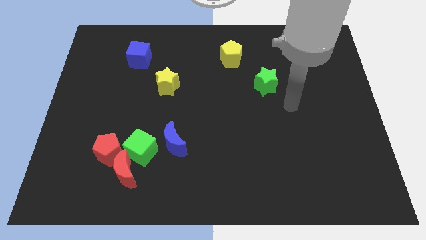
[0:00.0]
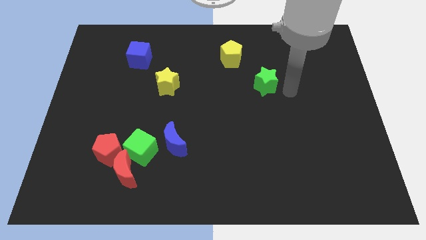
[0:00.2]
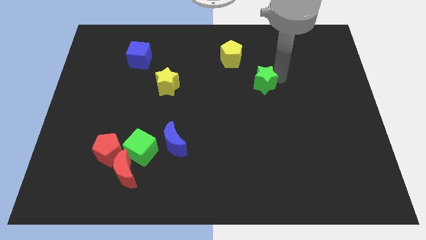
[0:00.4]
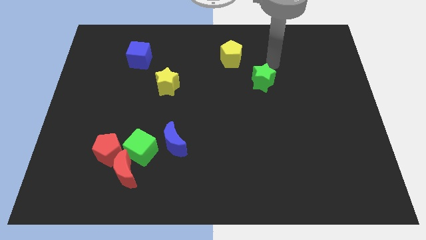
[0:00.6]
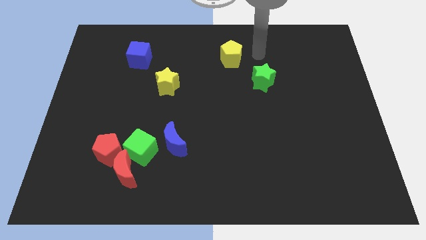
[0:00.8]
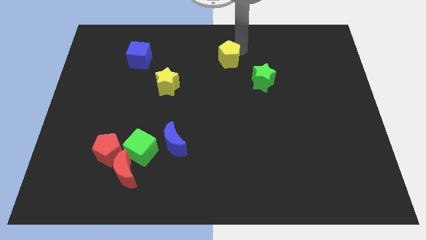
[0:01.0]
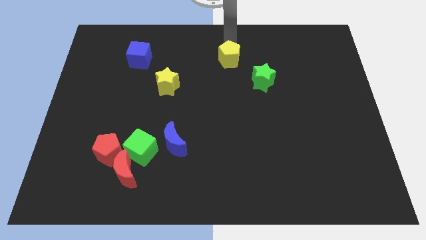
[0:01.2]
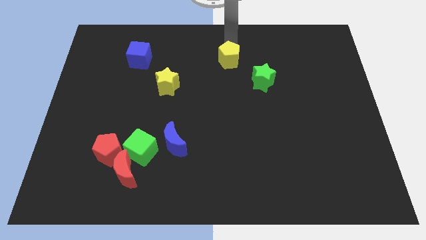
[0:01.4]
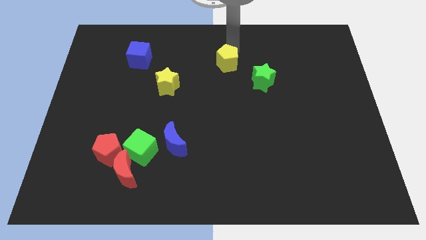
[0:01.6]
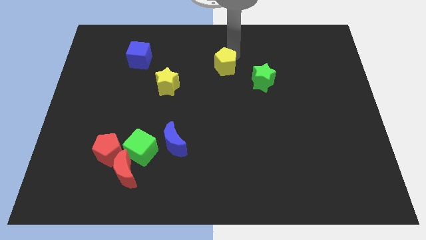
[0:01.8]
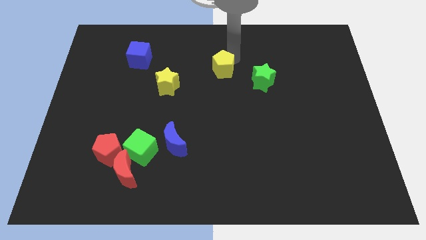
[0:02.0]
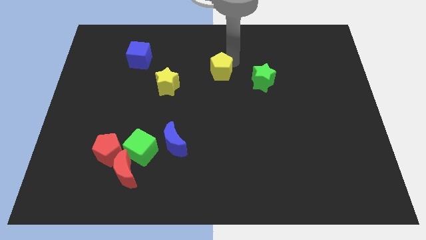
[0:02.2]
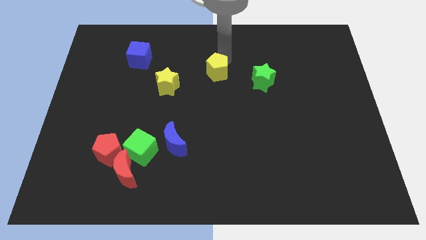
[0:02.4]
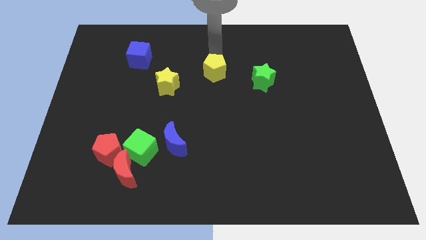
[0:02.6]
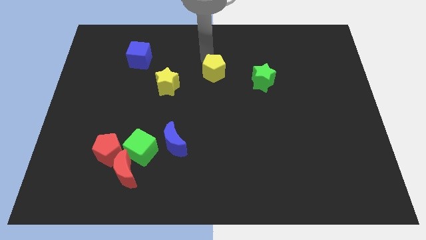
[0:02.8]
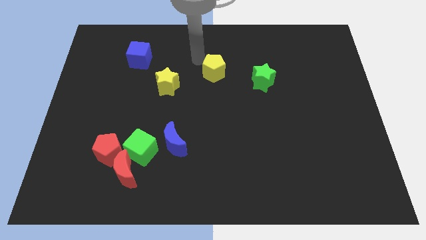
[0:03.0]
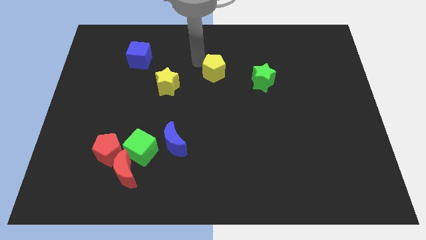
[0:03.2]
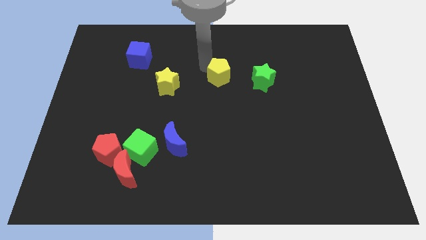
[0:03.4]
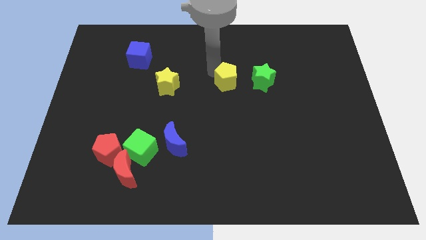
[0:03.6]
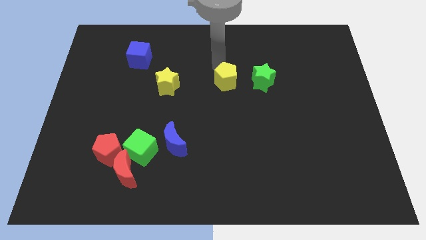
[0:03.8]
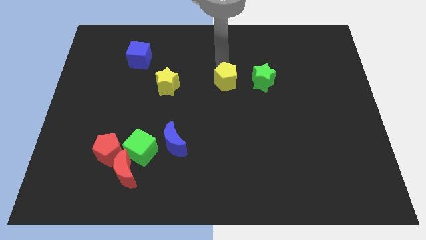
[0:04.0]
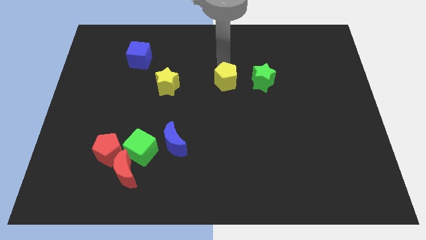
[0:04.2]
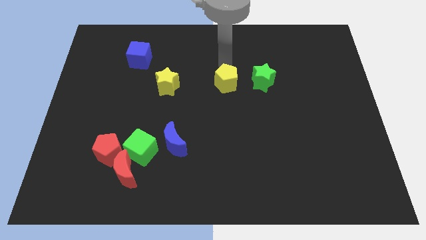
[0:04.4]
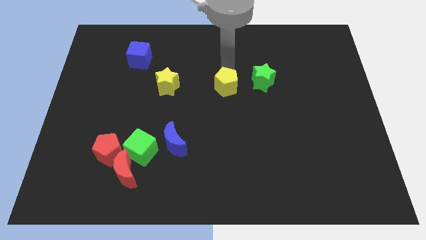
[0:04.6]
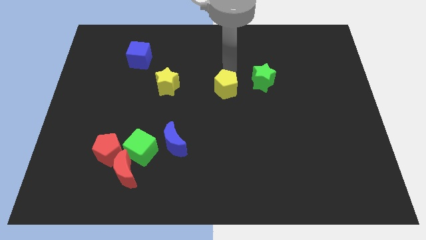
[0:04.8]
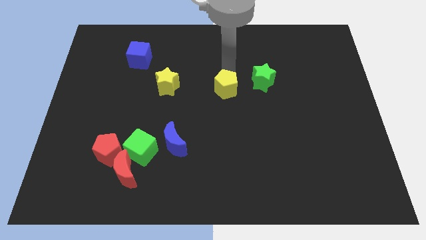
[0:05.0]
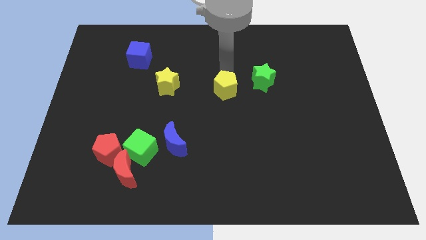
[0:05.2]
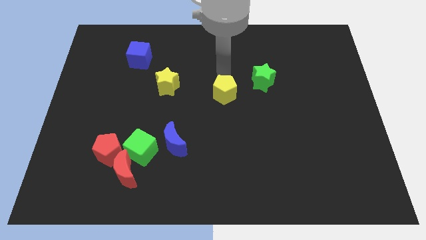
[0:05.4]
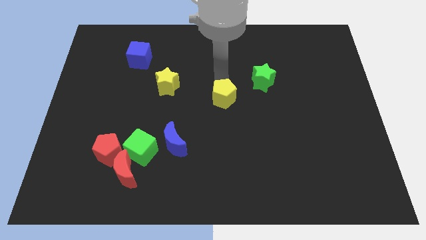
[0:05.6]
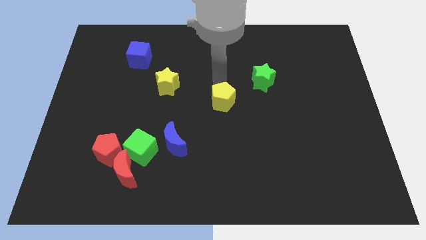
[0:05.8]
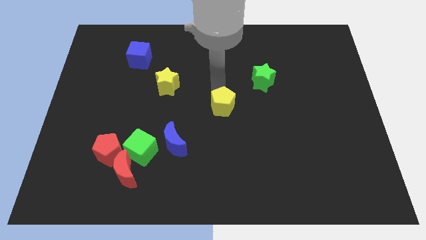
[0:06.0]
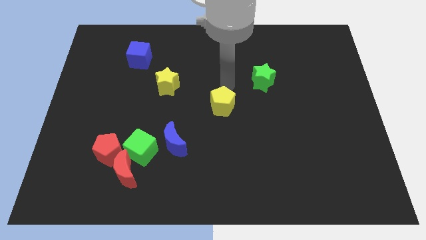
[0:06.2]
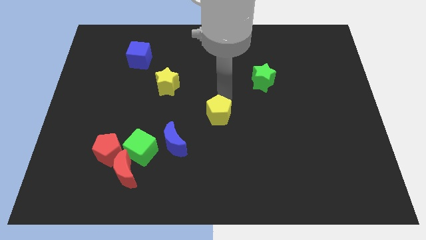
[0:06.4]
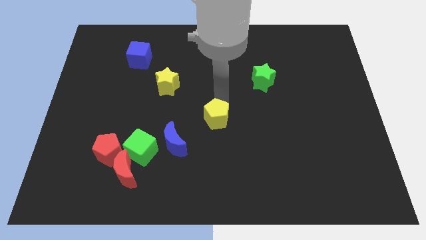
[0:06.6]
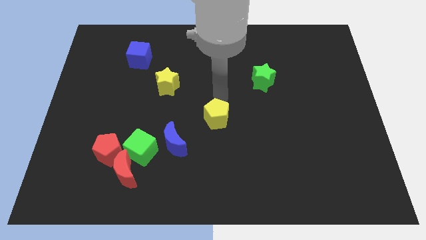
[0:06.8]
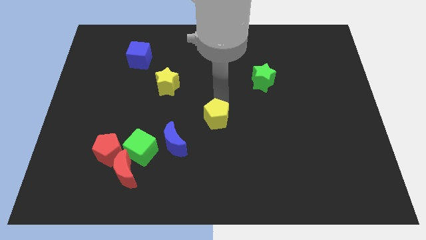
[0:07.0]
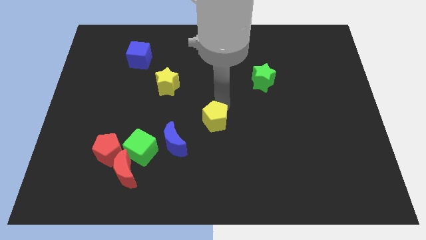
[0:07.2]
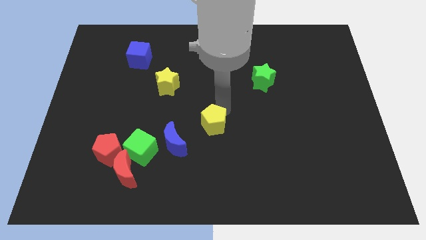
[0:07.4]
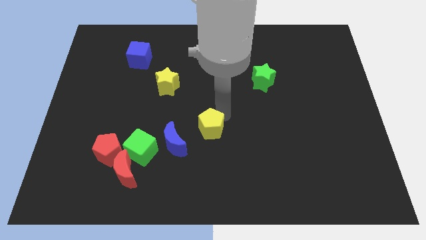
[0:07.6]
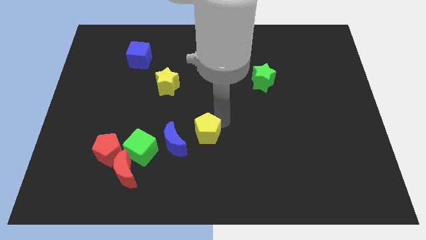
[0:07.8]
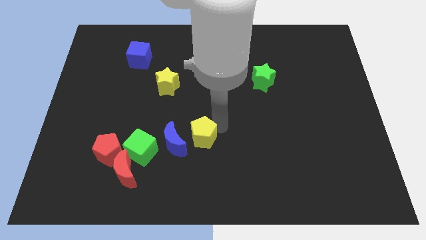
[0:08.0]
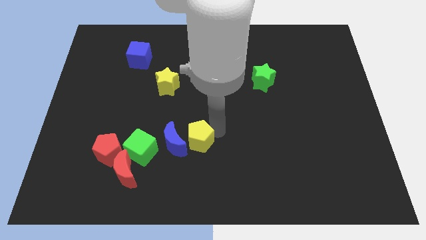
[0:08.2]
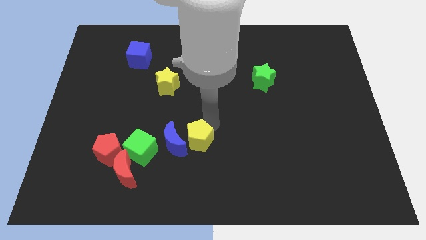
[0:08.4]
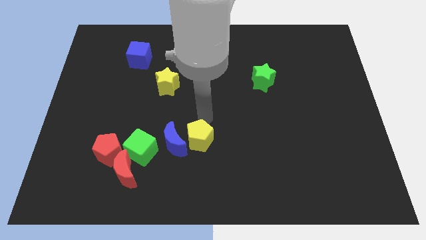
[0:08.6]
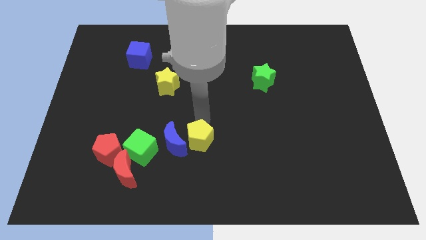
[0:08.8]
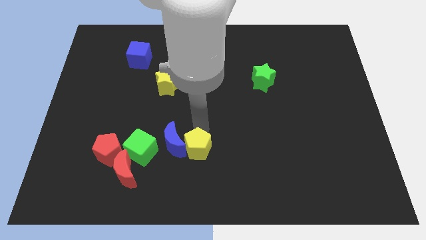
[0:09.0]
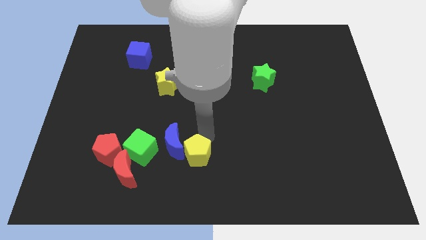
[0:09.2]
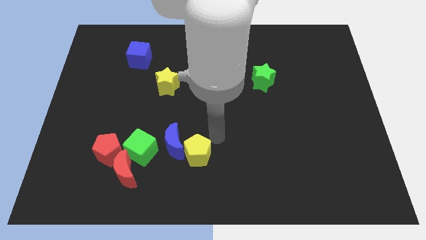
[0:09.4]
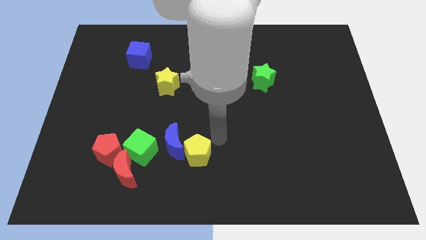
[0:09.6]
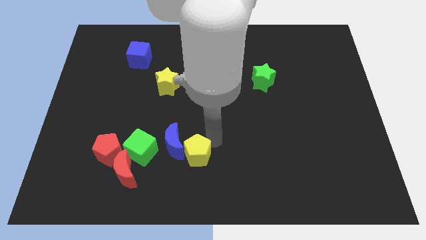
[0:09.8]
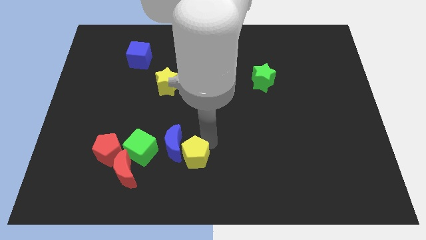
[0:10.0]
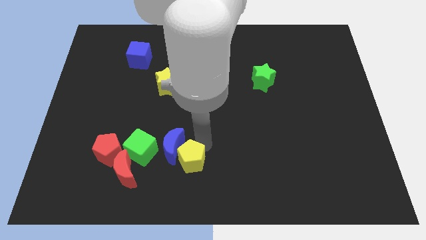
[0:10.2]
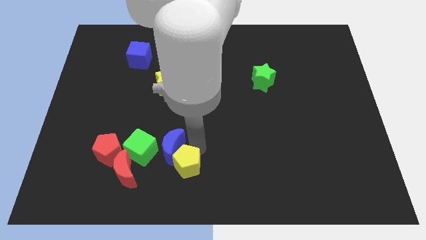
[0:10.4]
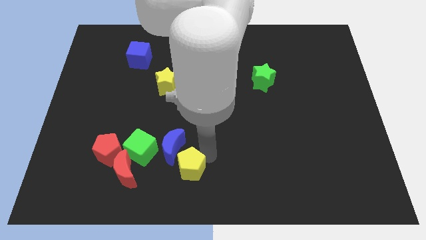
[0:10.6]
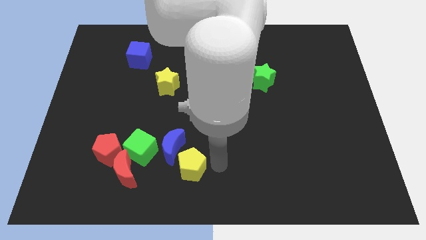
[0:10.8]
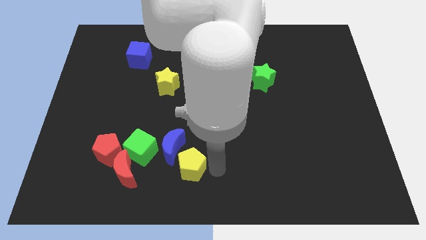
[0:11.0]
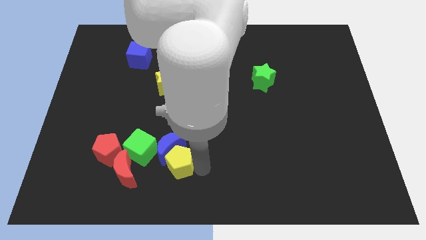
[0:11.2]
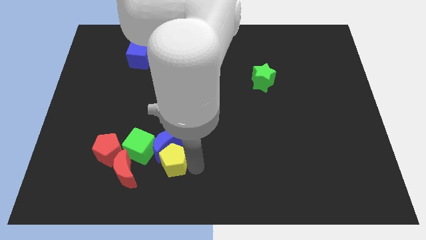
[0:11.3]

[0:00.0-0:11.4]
move the yellow pentagon diagonally down and to the left of the blue moon

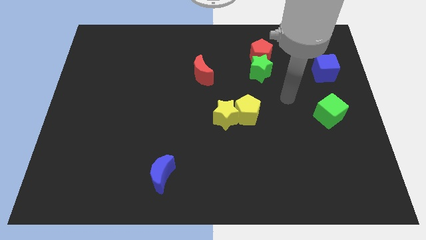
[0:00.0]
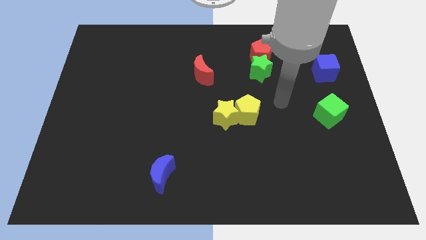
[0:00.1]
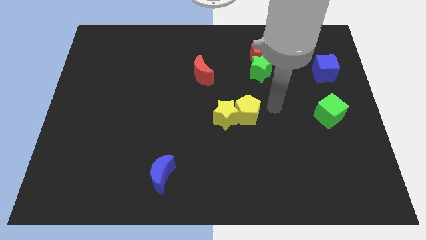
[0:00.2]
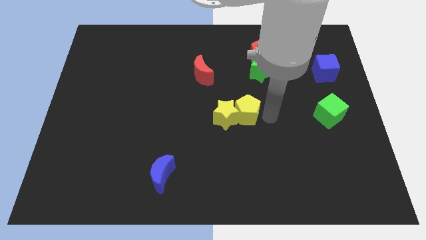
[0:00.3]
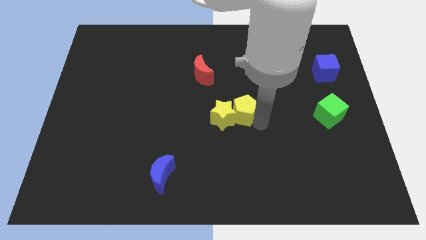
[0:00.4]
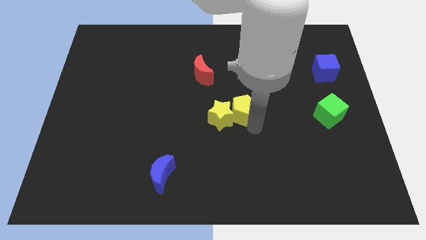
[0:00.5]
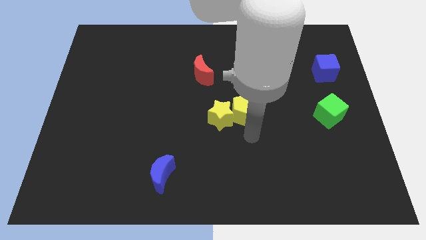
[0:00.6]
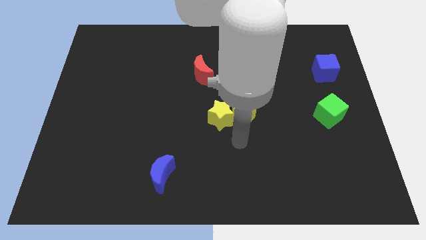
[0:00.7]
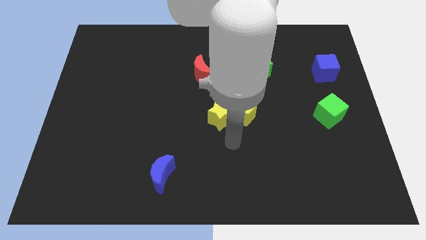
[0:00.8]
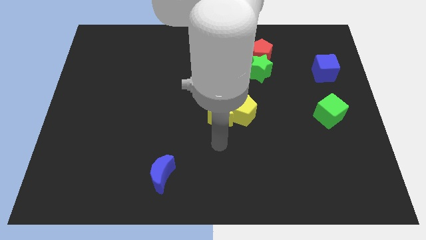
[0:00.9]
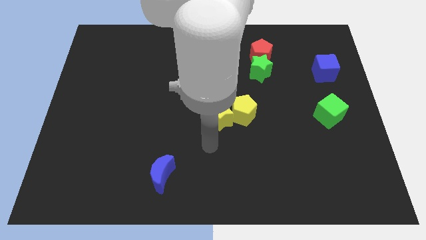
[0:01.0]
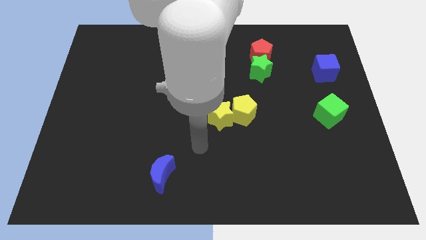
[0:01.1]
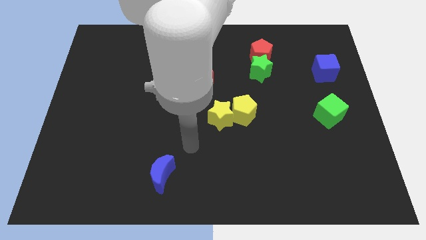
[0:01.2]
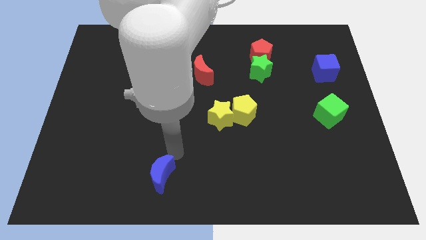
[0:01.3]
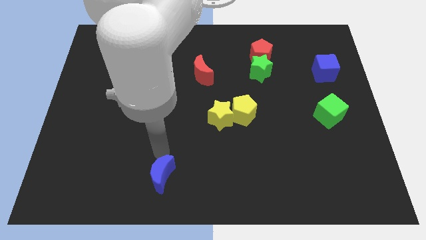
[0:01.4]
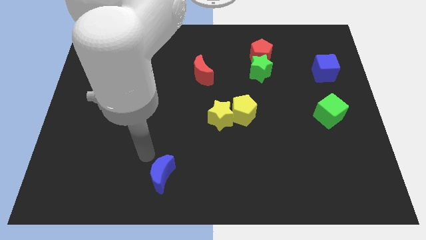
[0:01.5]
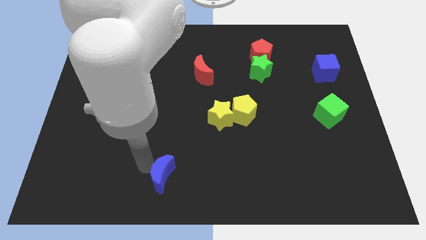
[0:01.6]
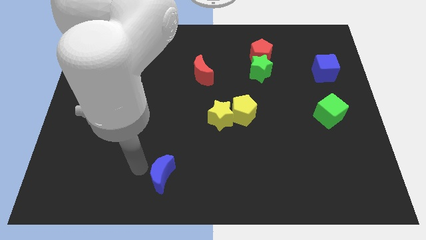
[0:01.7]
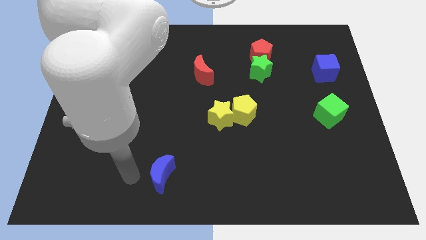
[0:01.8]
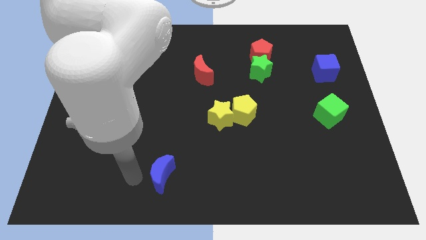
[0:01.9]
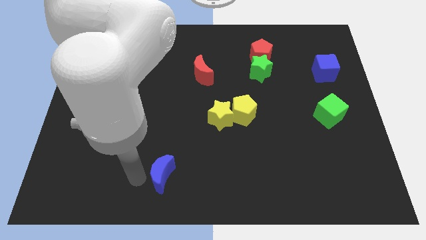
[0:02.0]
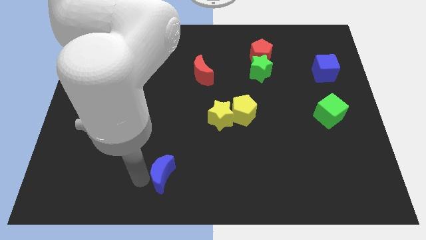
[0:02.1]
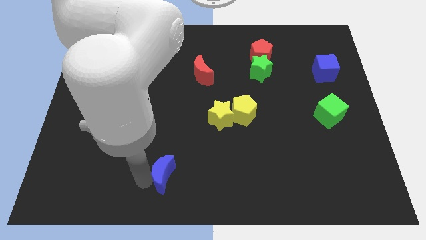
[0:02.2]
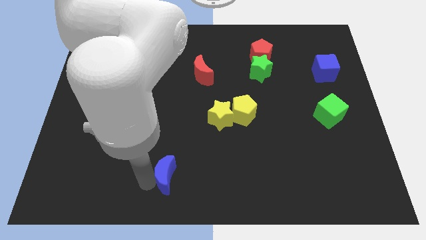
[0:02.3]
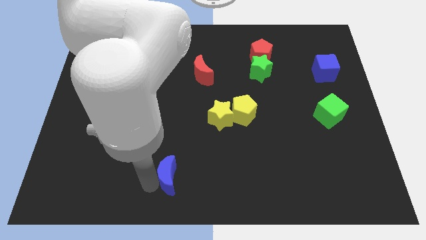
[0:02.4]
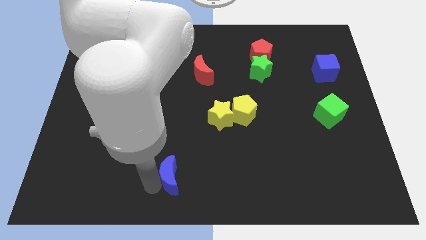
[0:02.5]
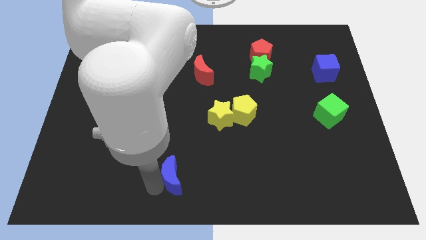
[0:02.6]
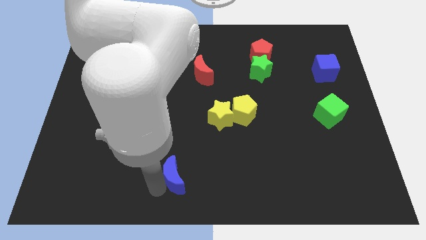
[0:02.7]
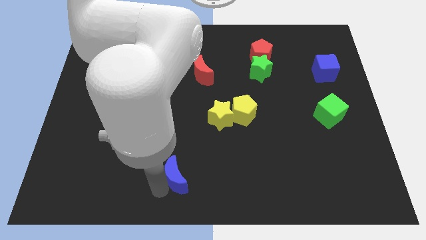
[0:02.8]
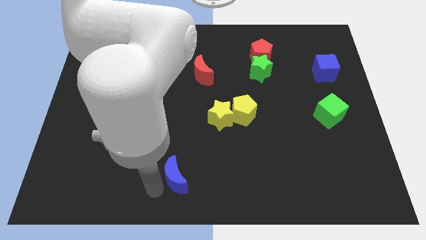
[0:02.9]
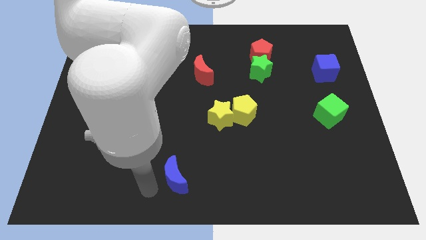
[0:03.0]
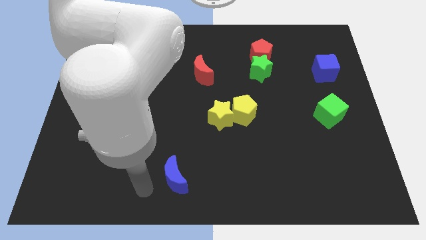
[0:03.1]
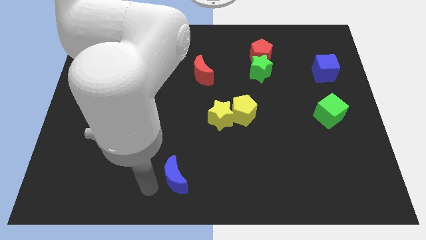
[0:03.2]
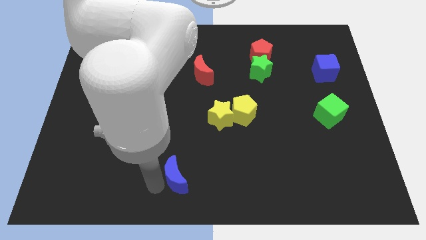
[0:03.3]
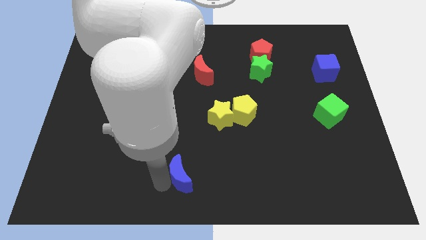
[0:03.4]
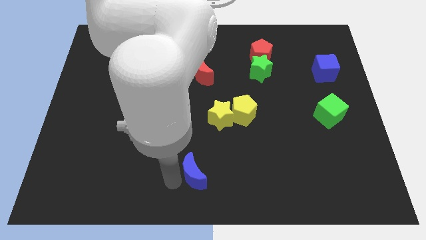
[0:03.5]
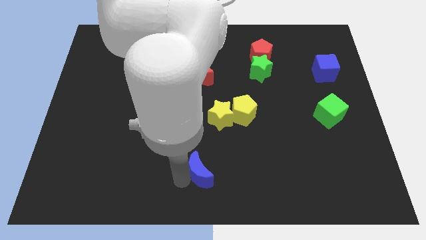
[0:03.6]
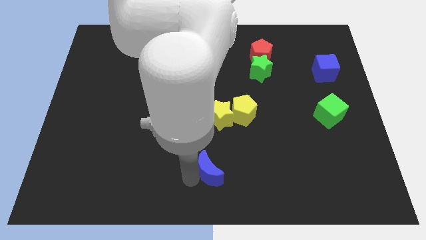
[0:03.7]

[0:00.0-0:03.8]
move the blue moon to the bottom side of the yellow star
